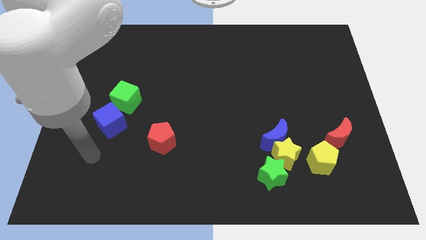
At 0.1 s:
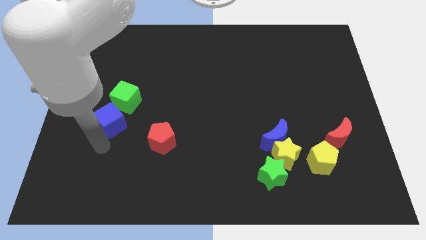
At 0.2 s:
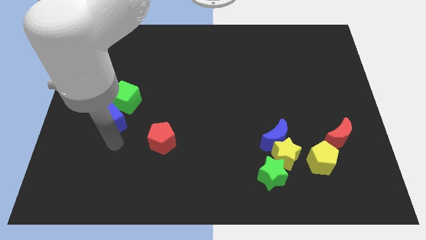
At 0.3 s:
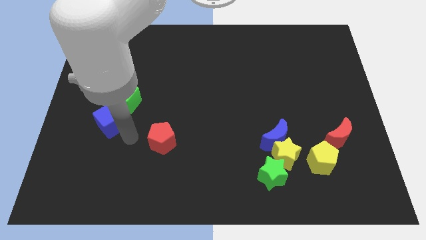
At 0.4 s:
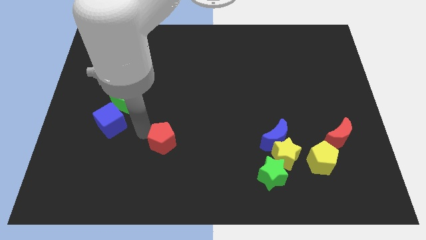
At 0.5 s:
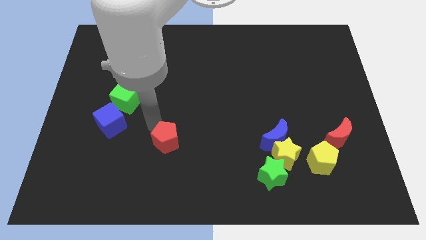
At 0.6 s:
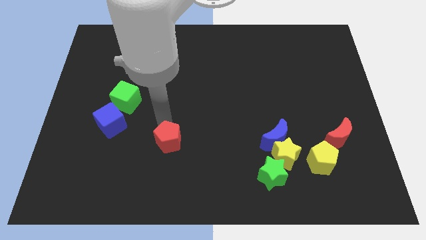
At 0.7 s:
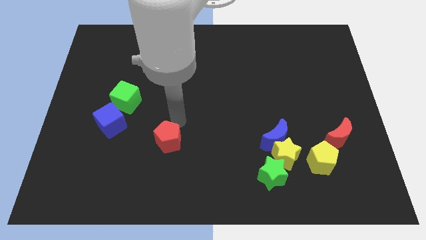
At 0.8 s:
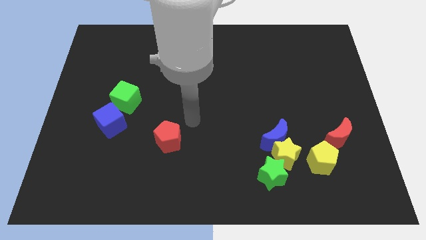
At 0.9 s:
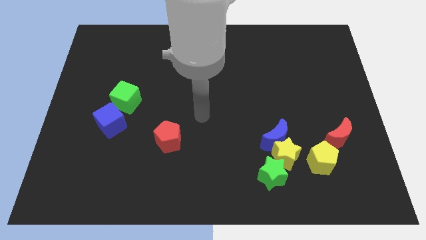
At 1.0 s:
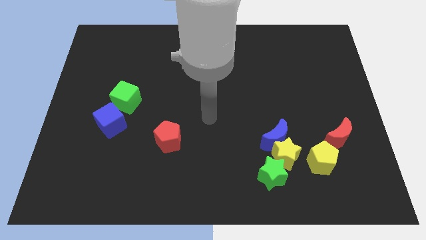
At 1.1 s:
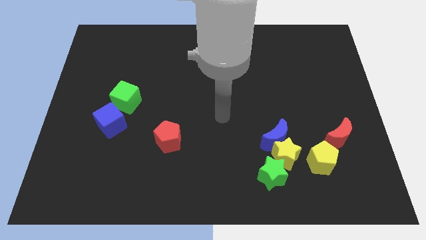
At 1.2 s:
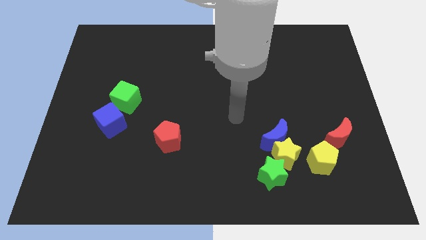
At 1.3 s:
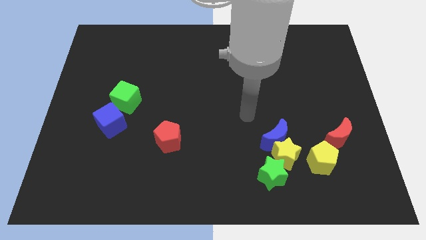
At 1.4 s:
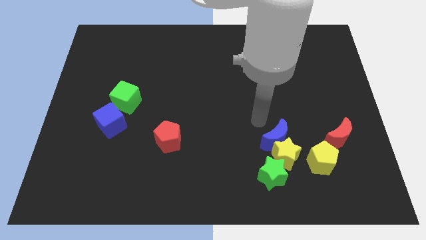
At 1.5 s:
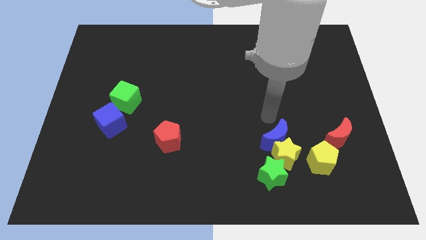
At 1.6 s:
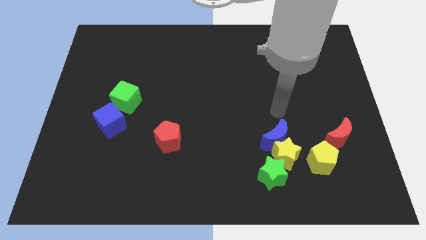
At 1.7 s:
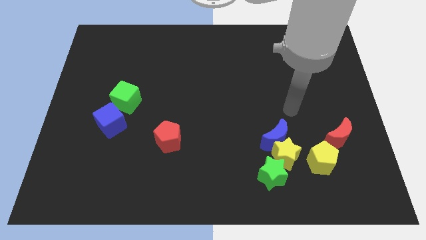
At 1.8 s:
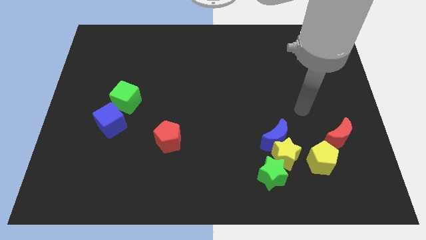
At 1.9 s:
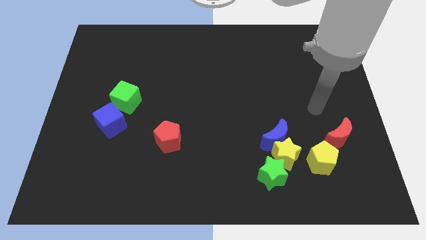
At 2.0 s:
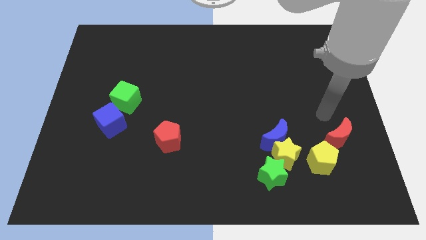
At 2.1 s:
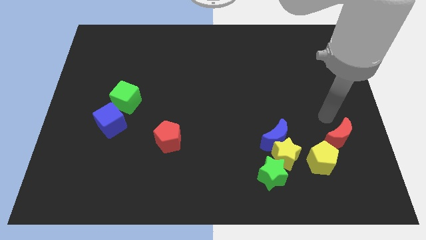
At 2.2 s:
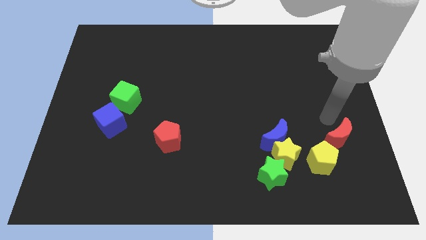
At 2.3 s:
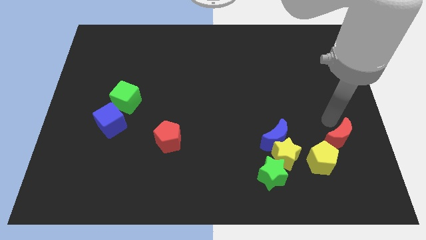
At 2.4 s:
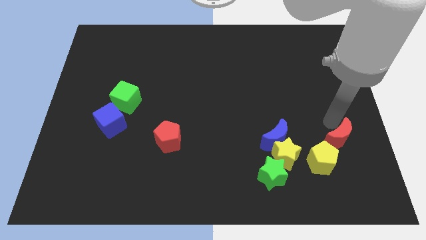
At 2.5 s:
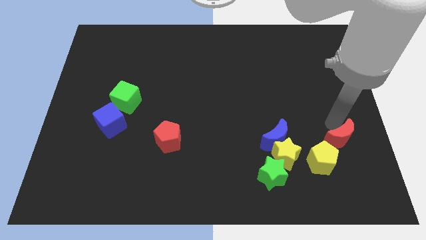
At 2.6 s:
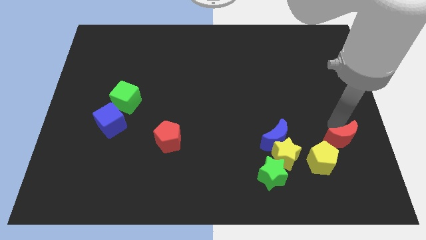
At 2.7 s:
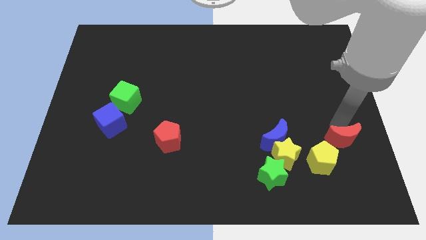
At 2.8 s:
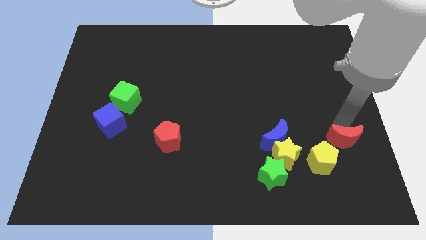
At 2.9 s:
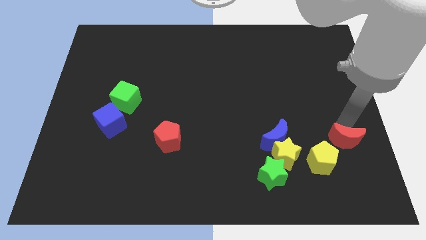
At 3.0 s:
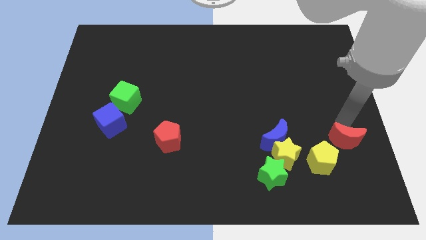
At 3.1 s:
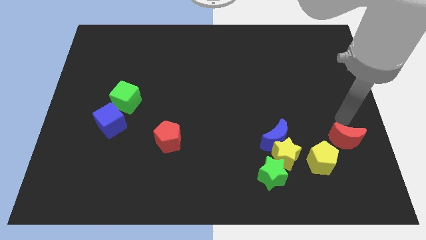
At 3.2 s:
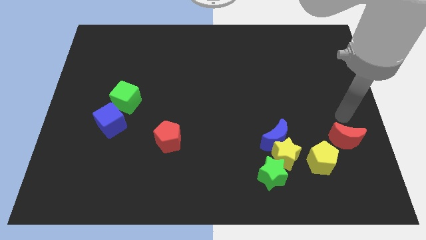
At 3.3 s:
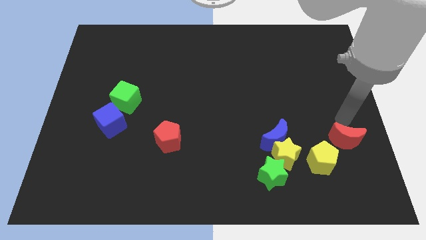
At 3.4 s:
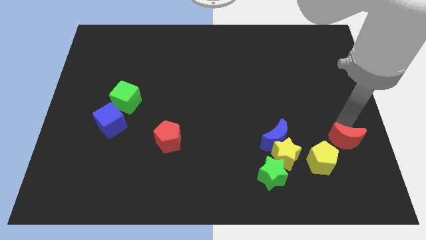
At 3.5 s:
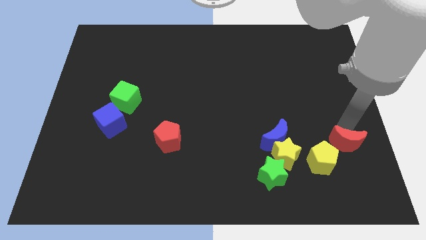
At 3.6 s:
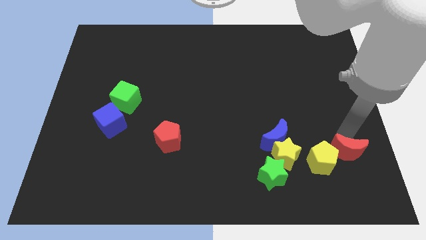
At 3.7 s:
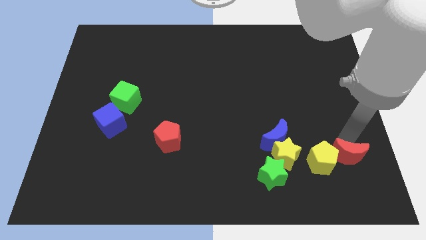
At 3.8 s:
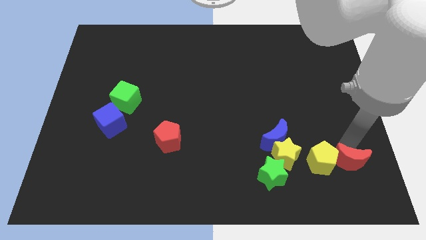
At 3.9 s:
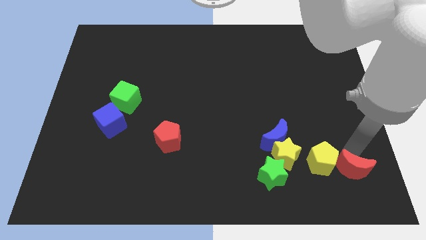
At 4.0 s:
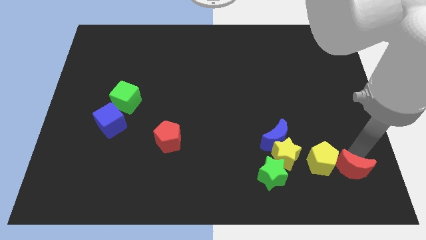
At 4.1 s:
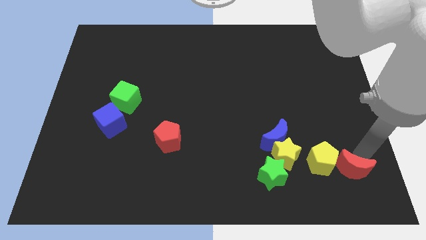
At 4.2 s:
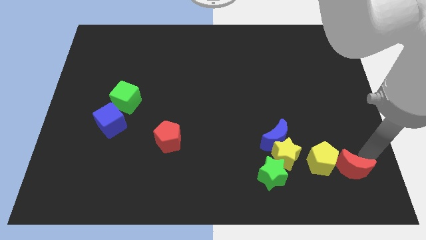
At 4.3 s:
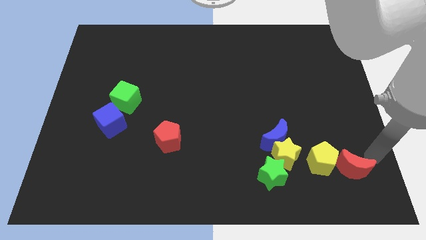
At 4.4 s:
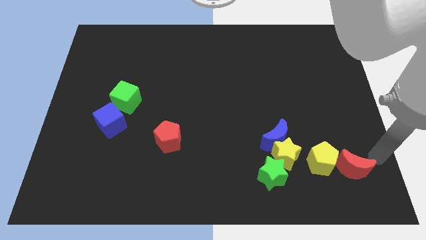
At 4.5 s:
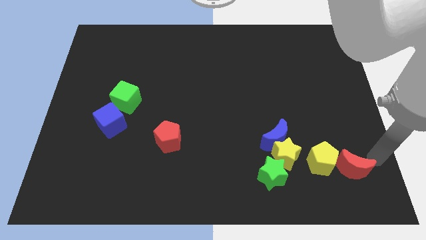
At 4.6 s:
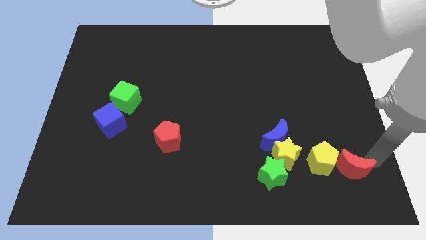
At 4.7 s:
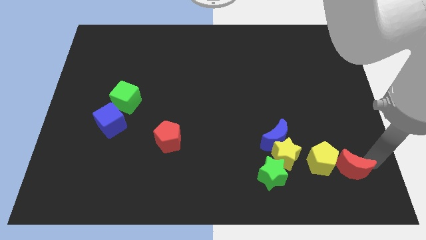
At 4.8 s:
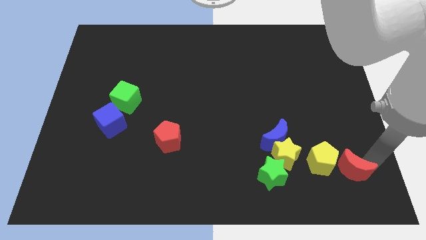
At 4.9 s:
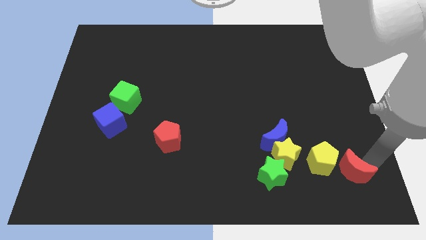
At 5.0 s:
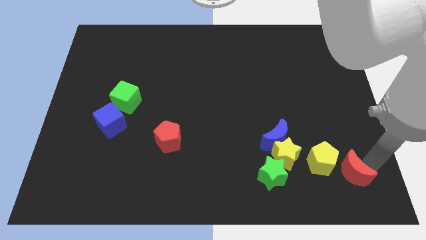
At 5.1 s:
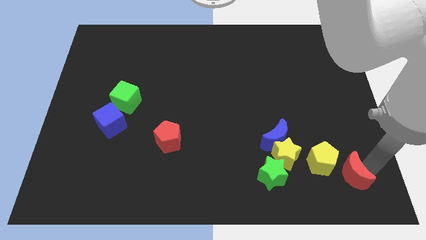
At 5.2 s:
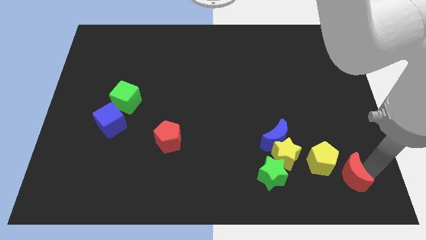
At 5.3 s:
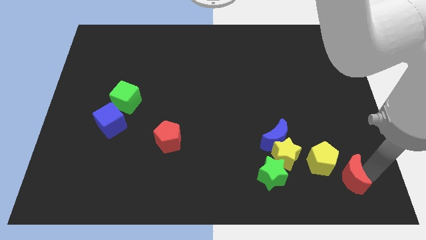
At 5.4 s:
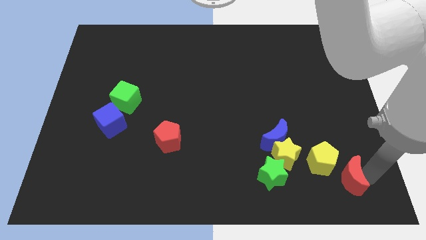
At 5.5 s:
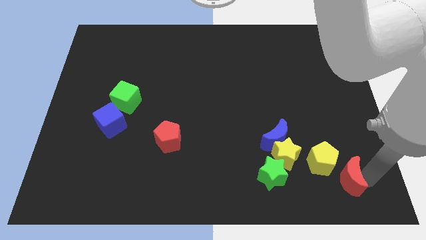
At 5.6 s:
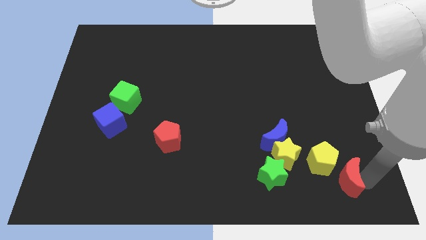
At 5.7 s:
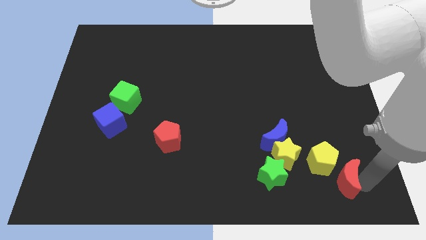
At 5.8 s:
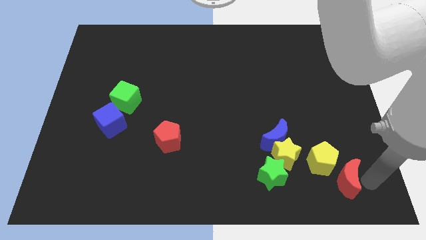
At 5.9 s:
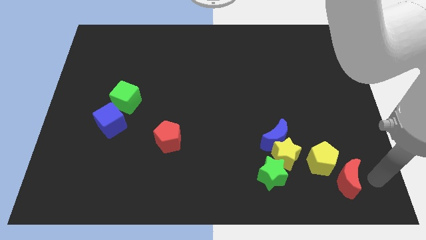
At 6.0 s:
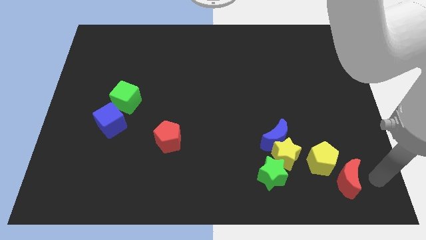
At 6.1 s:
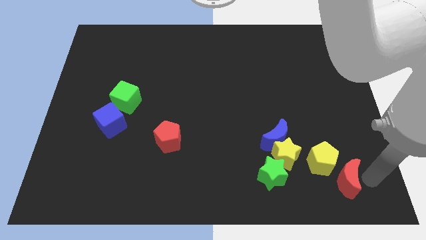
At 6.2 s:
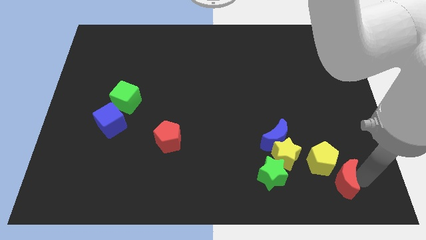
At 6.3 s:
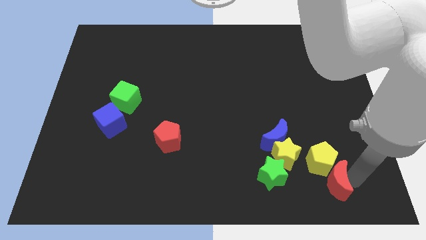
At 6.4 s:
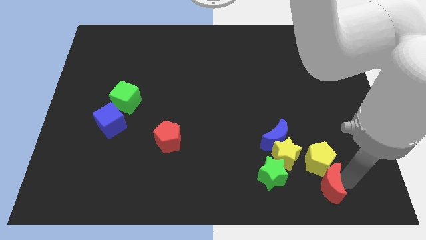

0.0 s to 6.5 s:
slide the red moon to the bottom left side of the yellow pentagon
